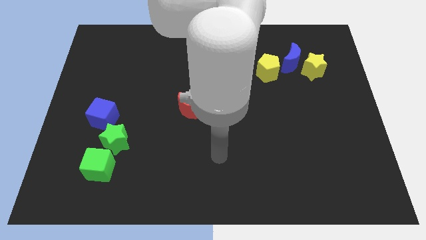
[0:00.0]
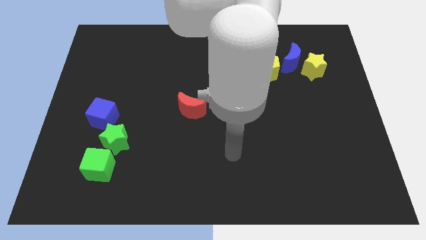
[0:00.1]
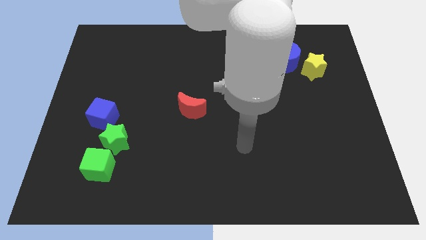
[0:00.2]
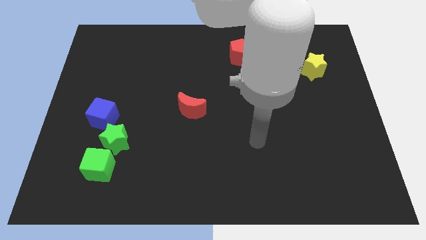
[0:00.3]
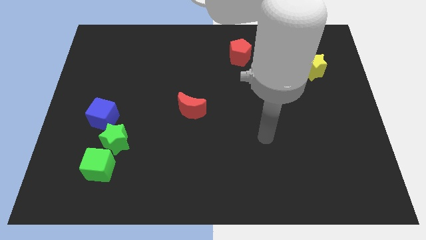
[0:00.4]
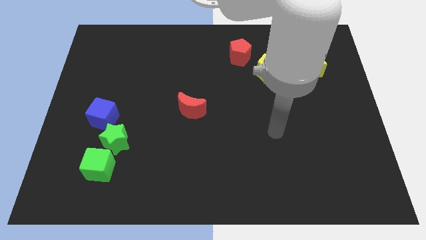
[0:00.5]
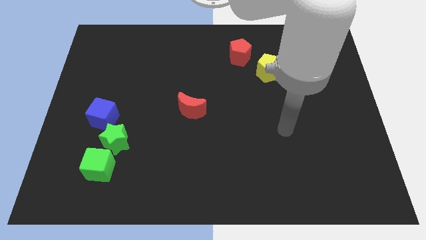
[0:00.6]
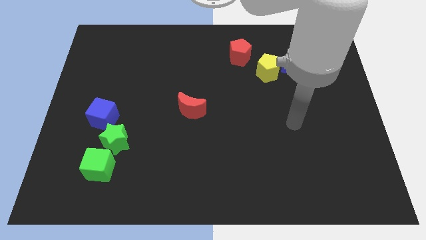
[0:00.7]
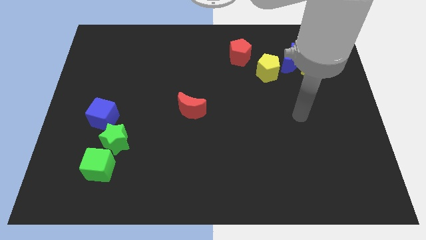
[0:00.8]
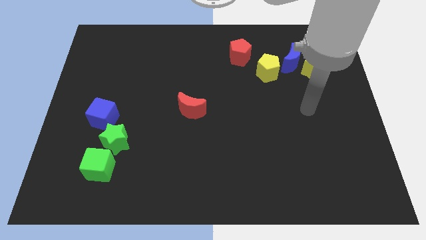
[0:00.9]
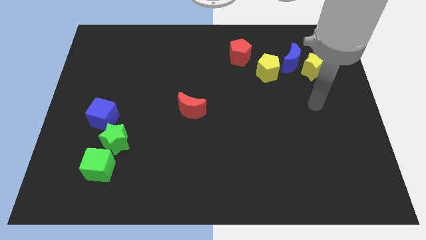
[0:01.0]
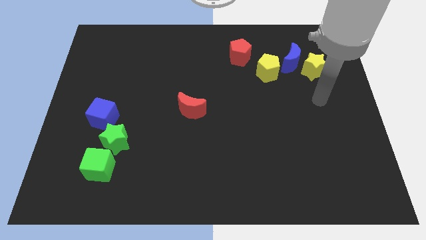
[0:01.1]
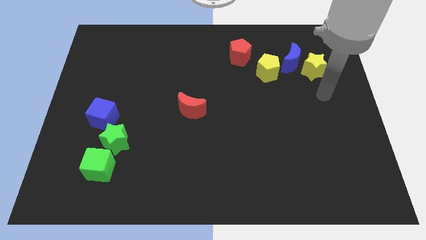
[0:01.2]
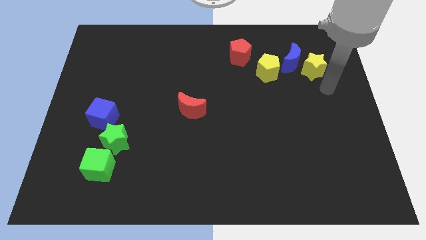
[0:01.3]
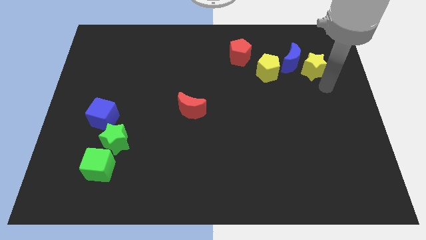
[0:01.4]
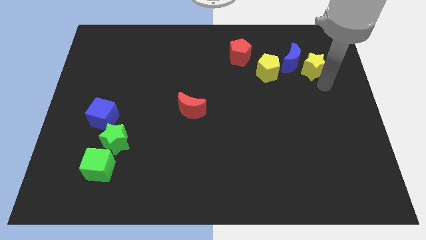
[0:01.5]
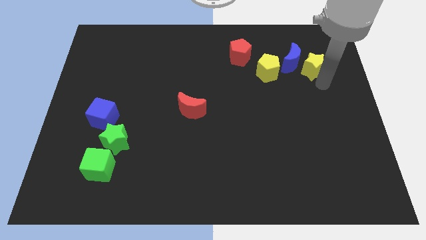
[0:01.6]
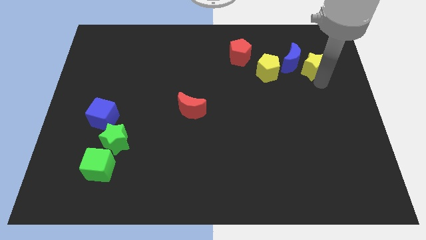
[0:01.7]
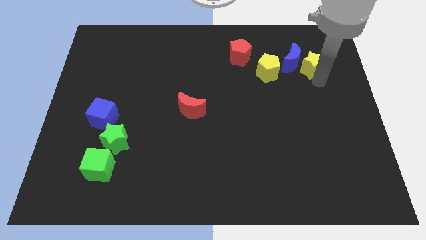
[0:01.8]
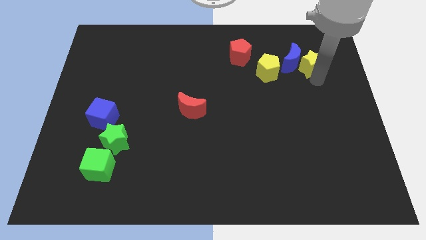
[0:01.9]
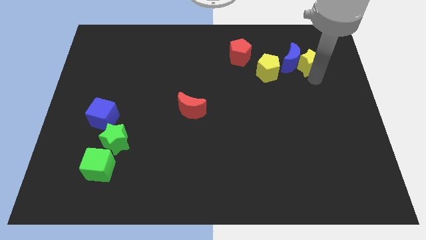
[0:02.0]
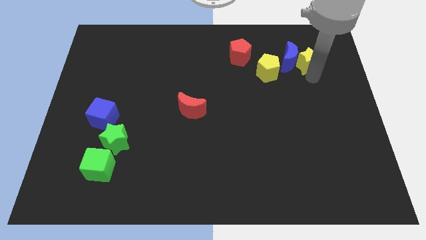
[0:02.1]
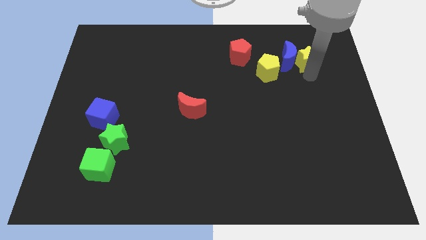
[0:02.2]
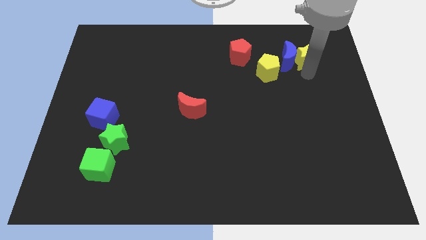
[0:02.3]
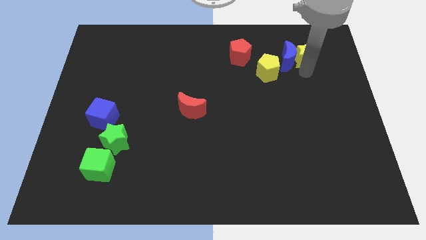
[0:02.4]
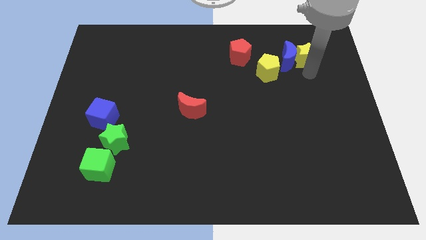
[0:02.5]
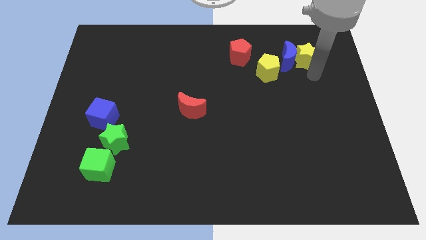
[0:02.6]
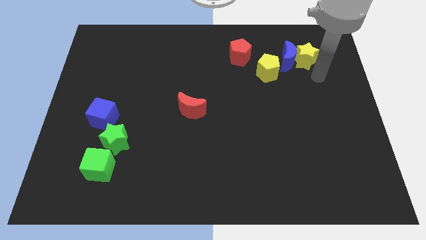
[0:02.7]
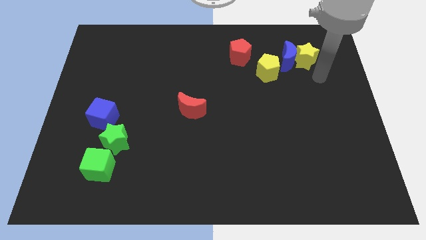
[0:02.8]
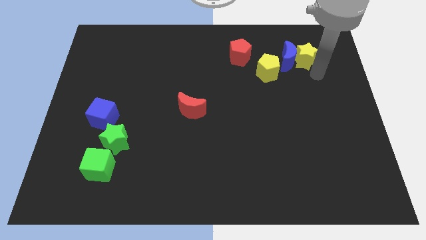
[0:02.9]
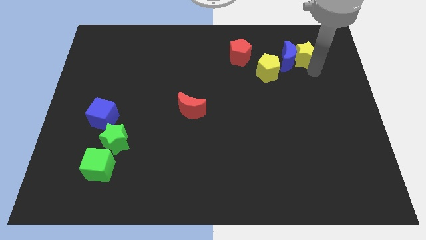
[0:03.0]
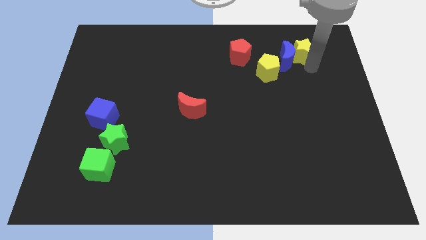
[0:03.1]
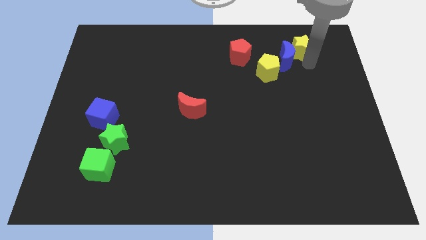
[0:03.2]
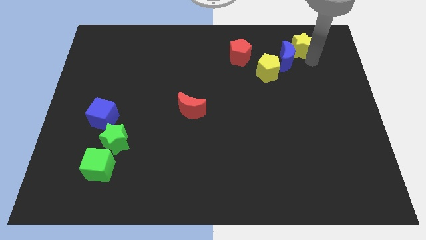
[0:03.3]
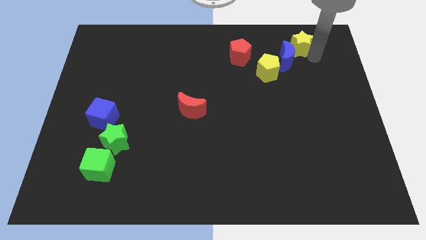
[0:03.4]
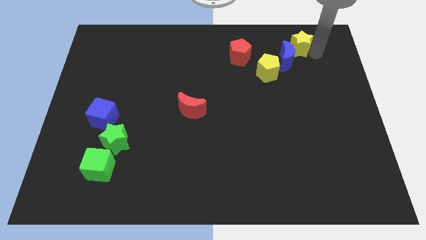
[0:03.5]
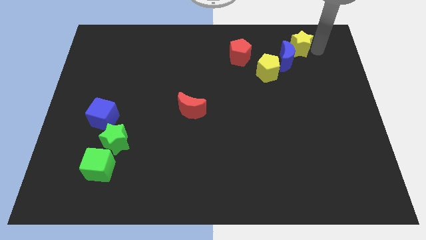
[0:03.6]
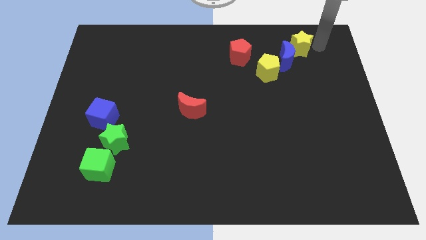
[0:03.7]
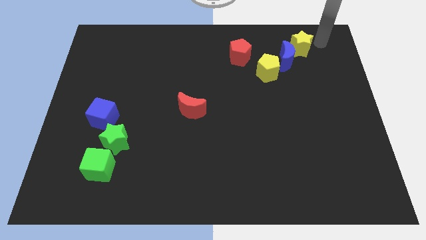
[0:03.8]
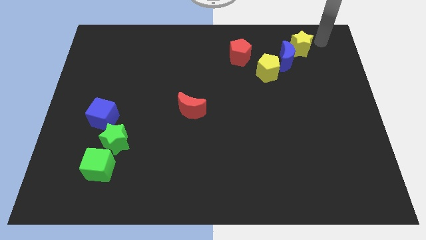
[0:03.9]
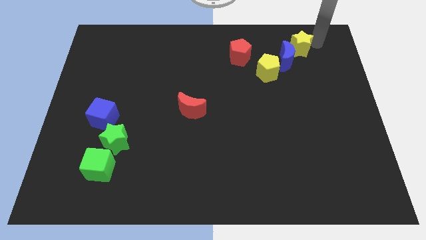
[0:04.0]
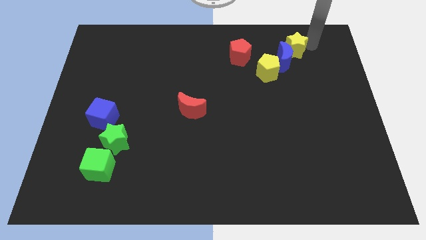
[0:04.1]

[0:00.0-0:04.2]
slide the yellow star just right of the red pentagon

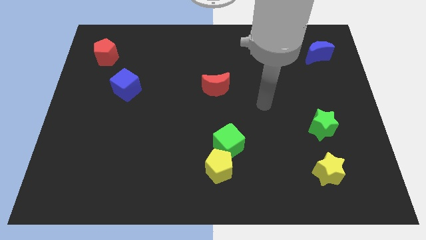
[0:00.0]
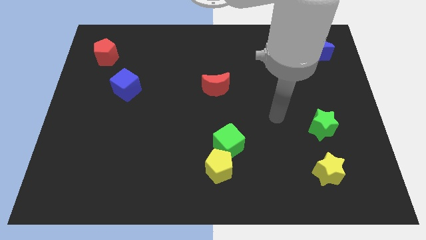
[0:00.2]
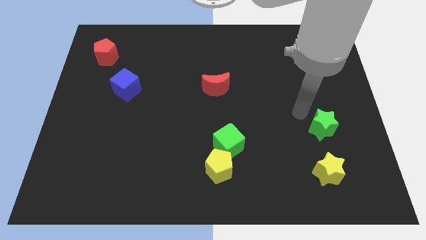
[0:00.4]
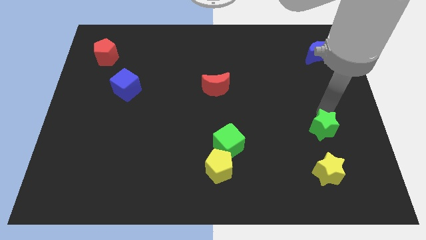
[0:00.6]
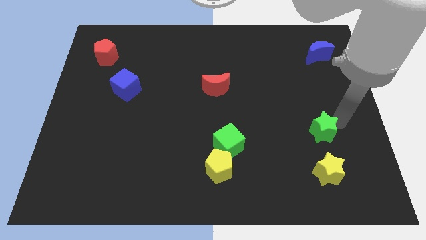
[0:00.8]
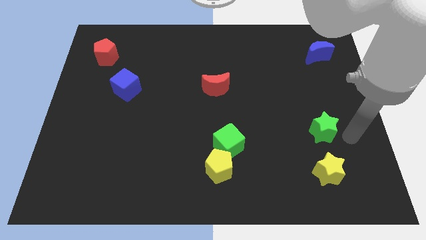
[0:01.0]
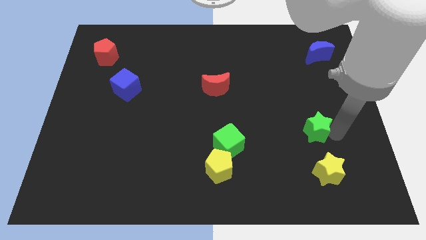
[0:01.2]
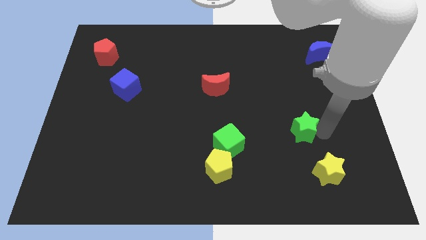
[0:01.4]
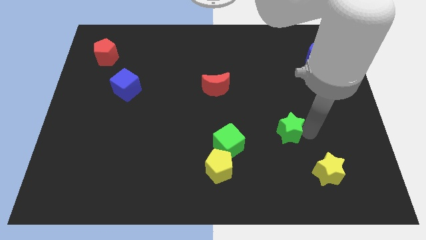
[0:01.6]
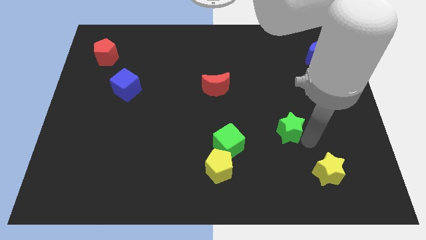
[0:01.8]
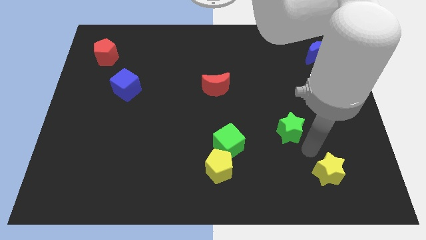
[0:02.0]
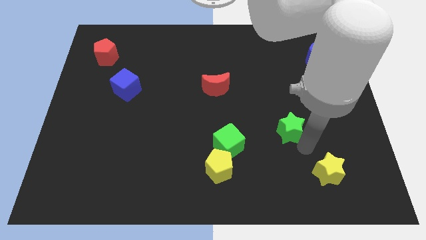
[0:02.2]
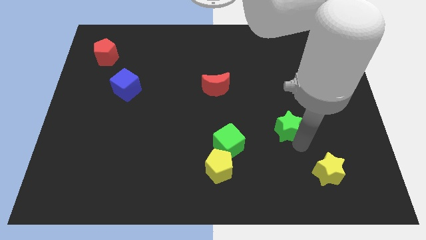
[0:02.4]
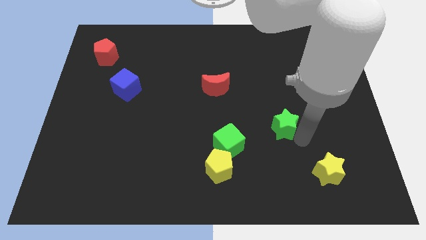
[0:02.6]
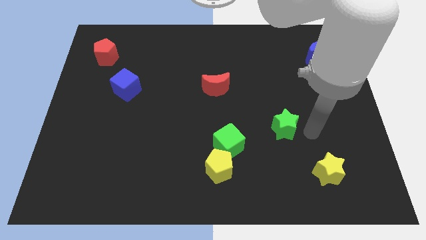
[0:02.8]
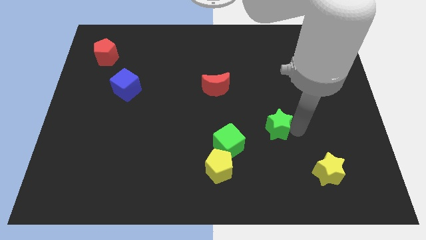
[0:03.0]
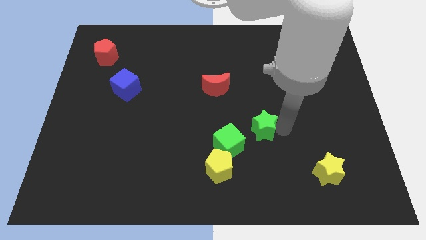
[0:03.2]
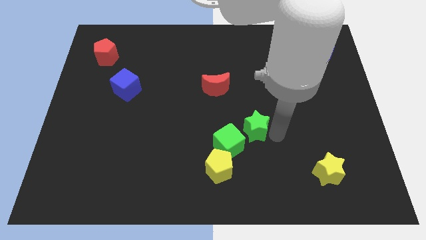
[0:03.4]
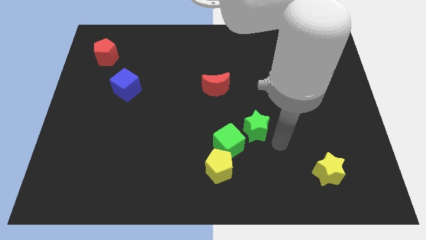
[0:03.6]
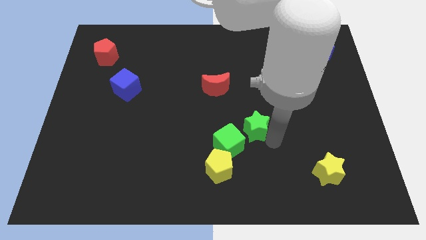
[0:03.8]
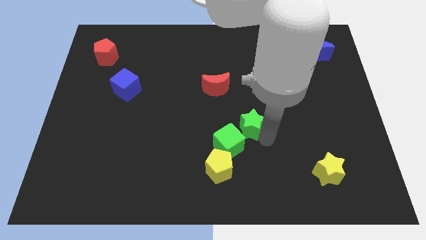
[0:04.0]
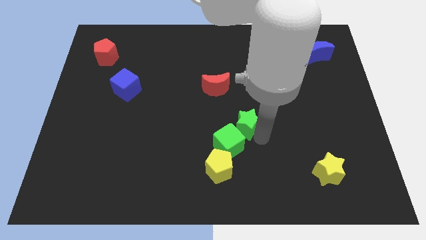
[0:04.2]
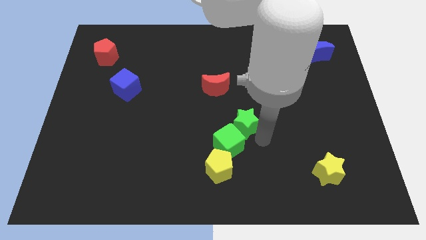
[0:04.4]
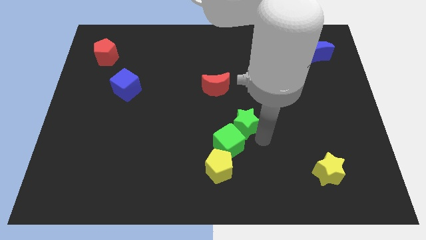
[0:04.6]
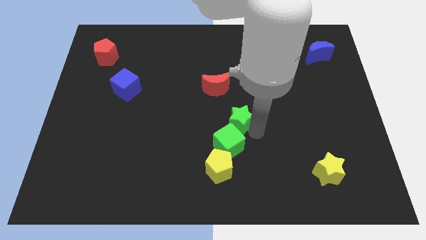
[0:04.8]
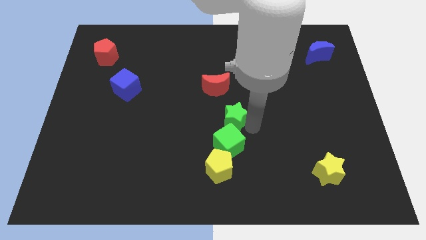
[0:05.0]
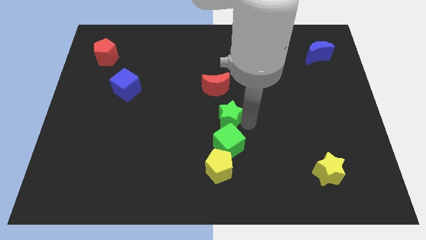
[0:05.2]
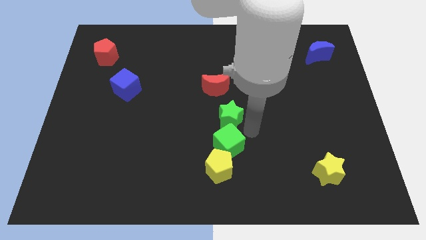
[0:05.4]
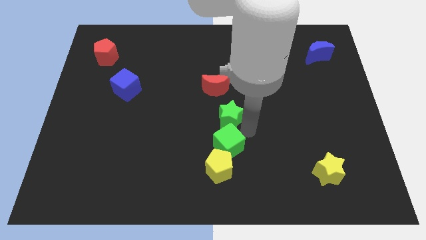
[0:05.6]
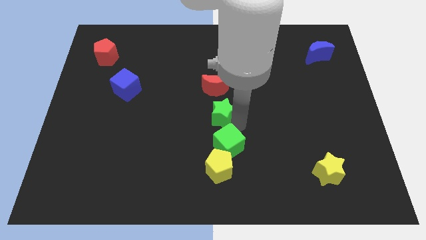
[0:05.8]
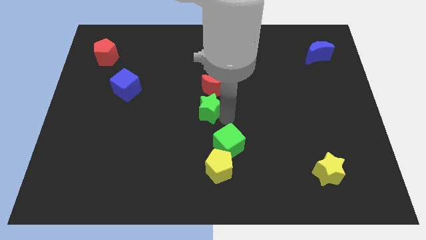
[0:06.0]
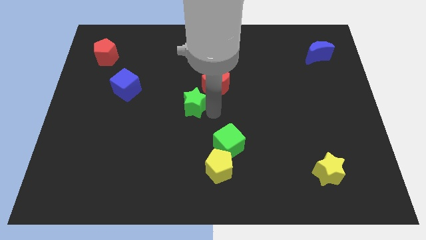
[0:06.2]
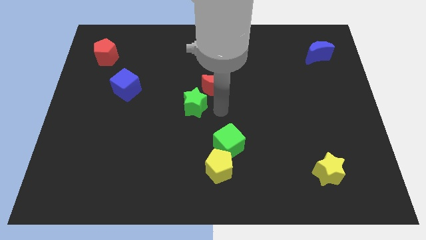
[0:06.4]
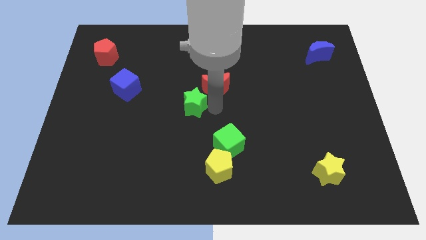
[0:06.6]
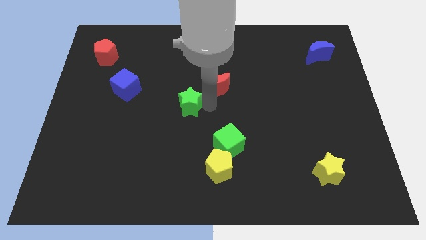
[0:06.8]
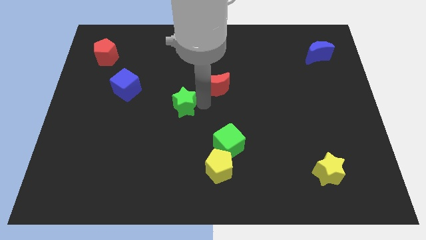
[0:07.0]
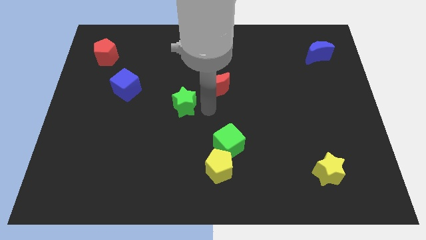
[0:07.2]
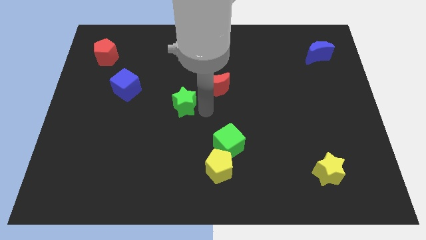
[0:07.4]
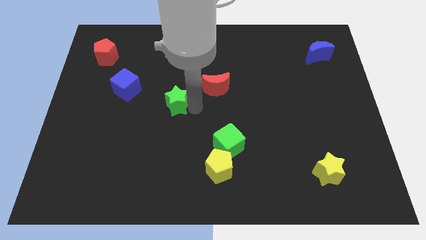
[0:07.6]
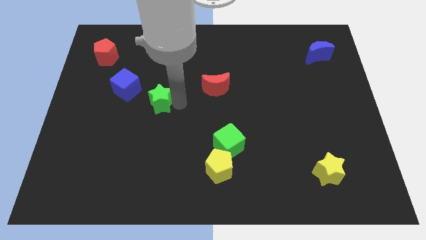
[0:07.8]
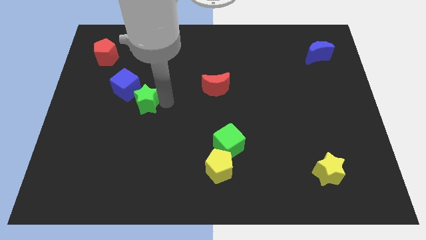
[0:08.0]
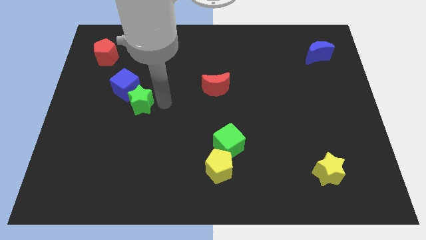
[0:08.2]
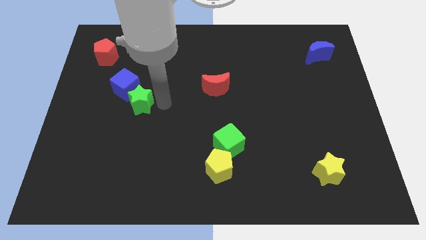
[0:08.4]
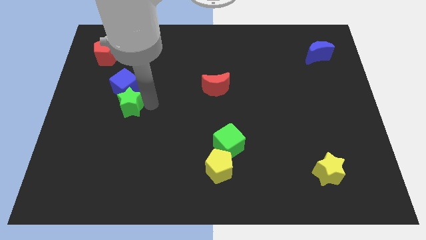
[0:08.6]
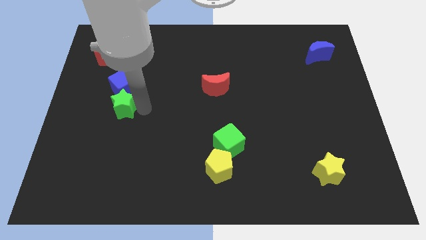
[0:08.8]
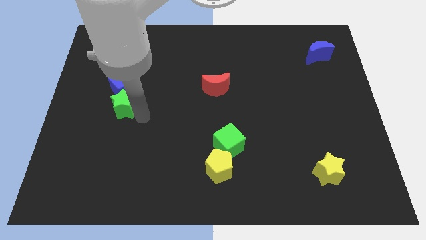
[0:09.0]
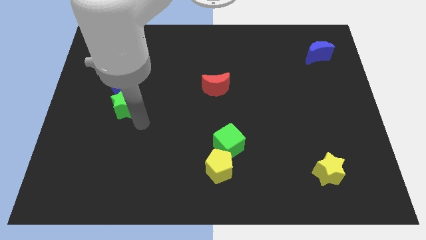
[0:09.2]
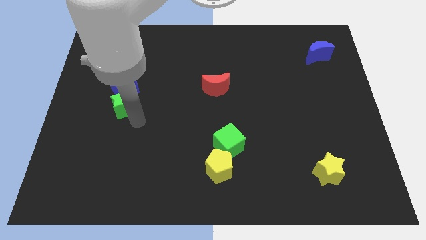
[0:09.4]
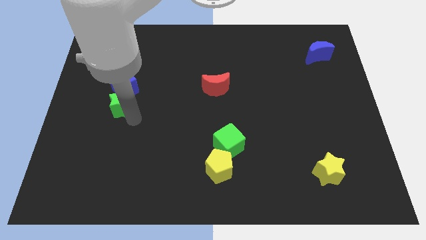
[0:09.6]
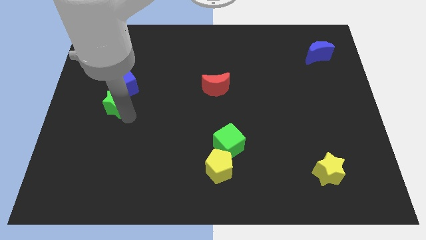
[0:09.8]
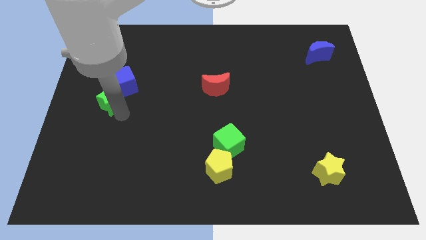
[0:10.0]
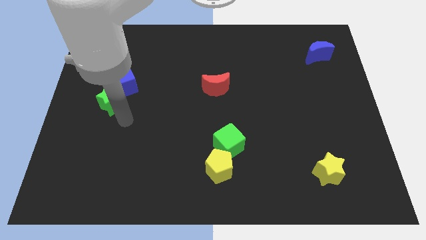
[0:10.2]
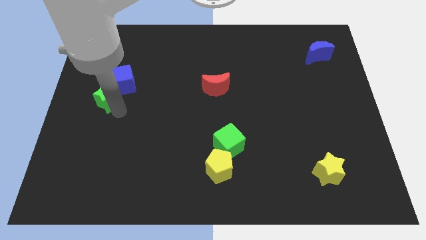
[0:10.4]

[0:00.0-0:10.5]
slide the green star to the bottom of the red pentagon
